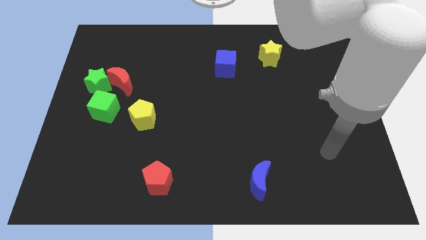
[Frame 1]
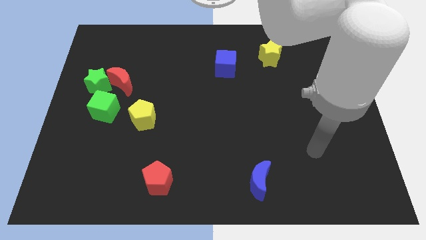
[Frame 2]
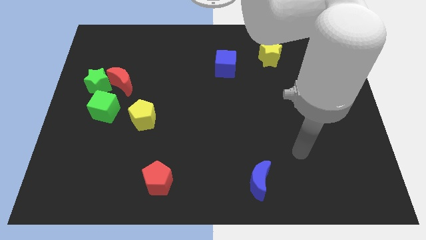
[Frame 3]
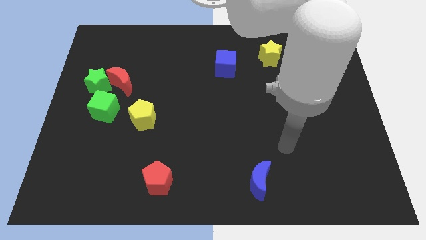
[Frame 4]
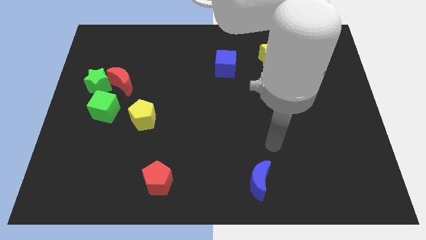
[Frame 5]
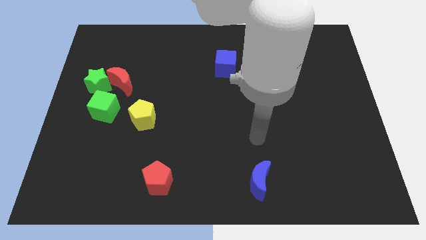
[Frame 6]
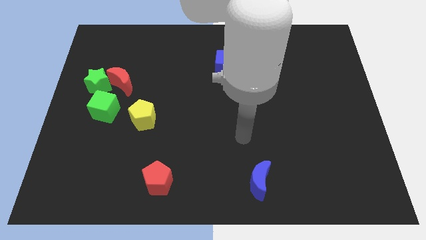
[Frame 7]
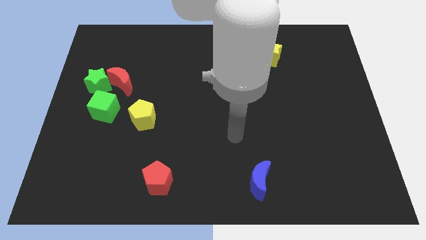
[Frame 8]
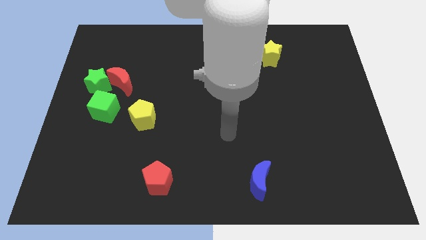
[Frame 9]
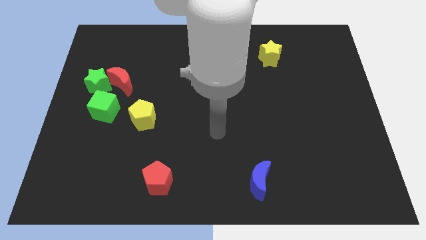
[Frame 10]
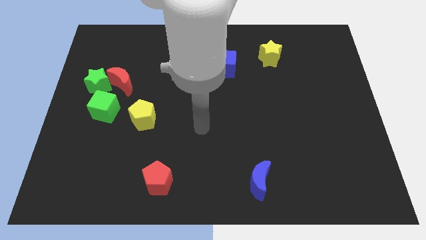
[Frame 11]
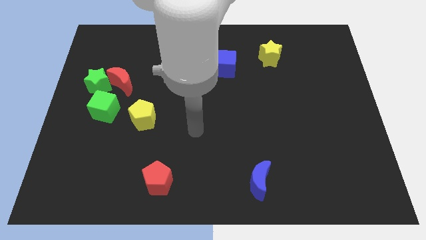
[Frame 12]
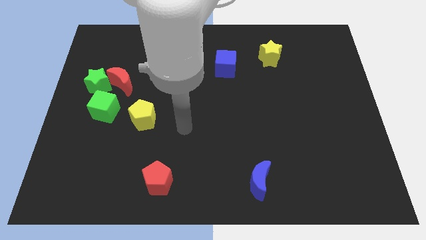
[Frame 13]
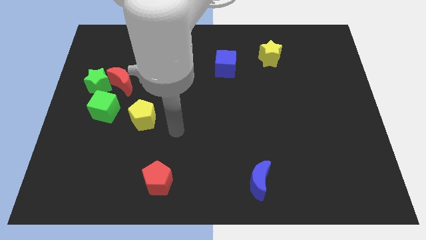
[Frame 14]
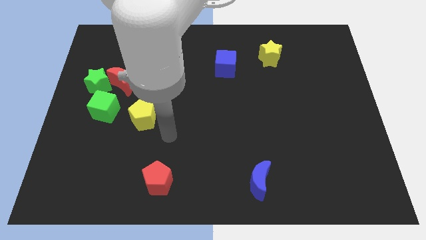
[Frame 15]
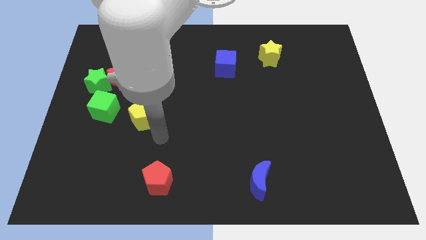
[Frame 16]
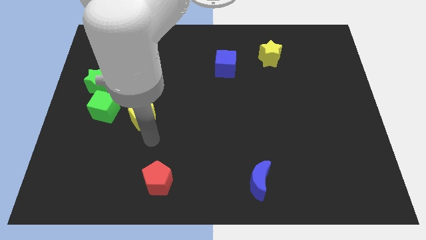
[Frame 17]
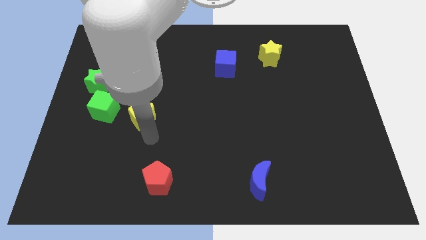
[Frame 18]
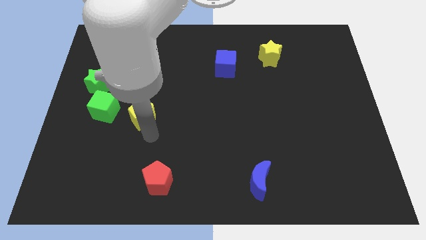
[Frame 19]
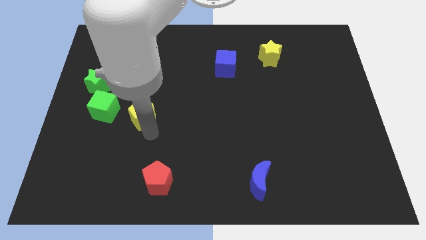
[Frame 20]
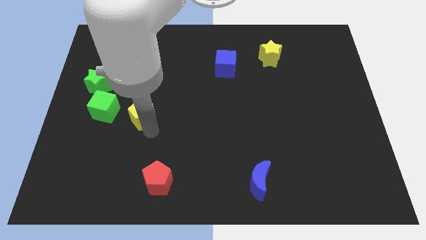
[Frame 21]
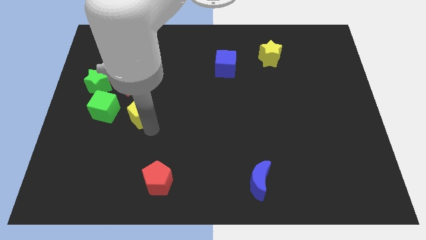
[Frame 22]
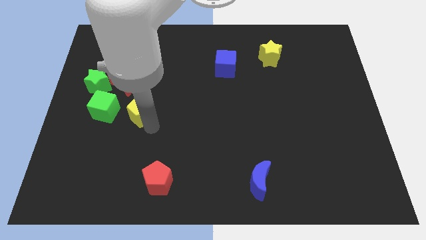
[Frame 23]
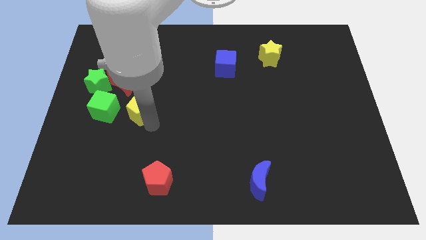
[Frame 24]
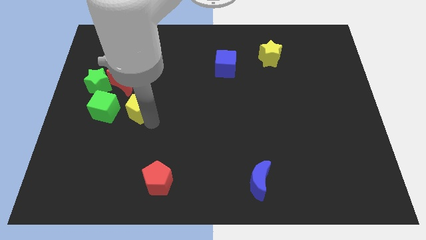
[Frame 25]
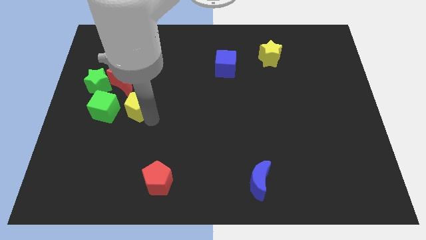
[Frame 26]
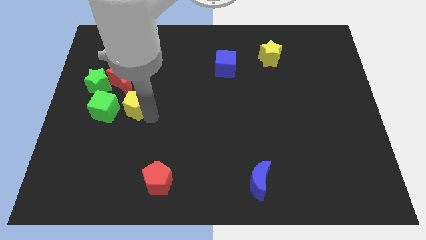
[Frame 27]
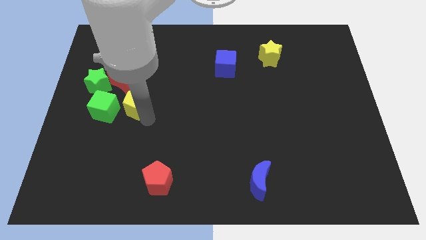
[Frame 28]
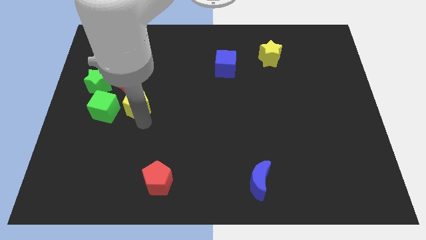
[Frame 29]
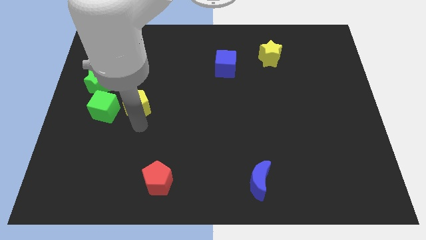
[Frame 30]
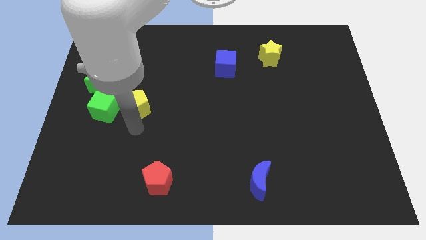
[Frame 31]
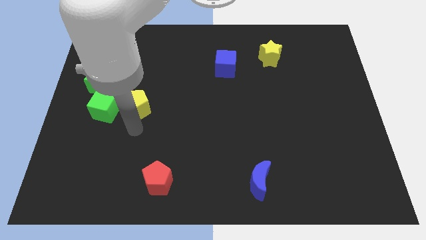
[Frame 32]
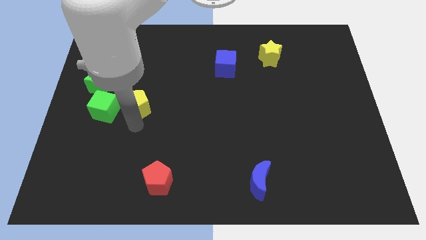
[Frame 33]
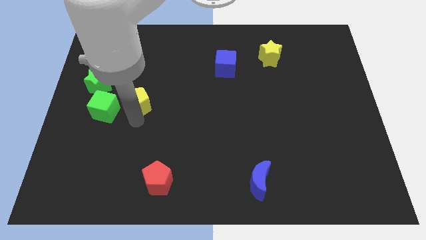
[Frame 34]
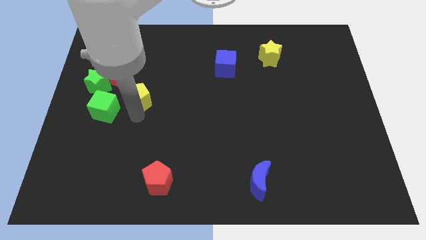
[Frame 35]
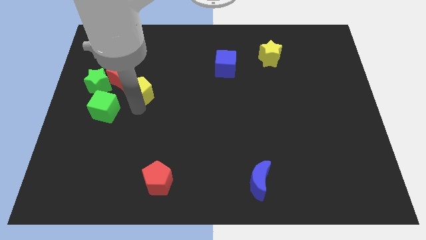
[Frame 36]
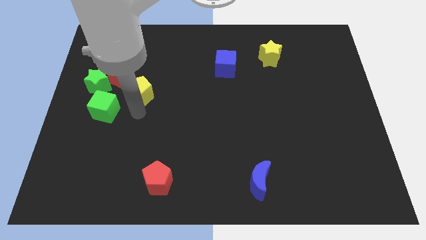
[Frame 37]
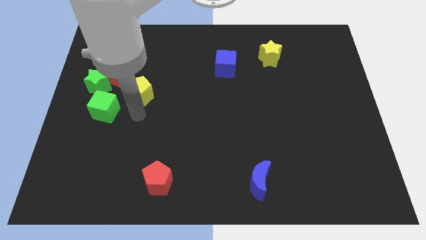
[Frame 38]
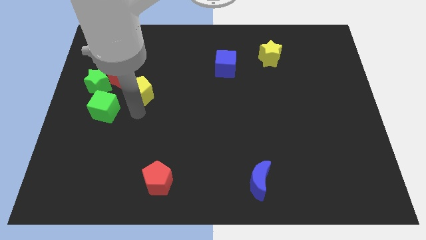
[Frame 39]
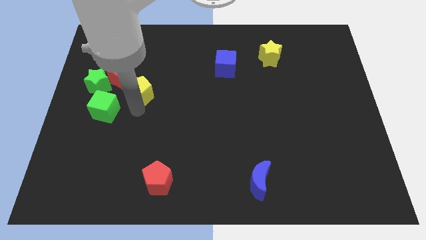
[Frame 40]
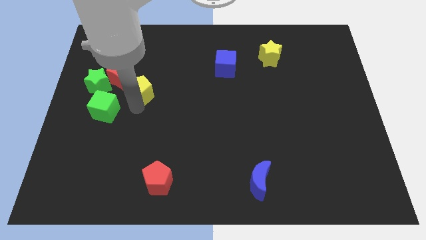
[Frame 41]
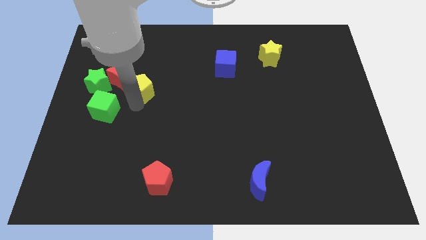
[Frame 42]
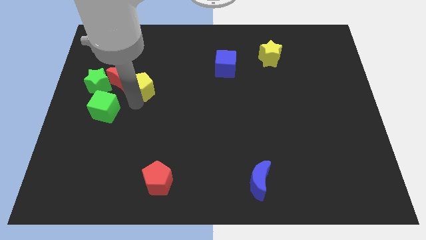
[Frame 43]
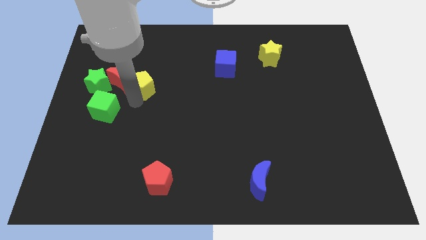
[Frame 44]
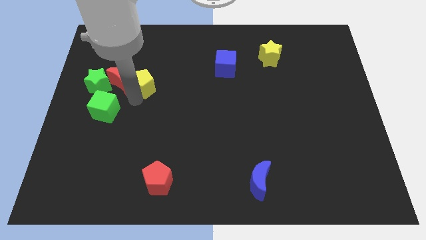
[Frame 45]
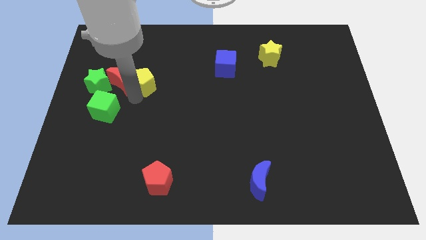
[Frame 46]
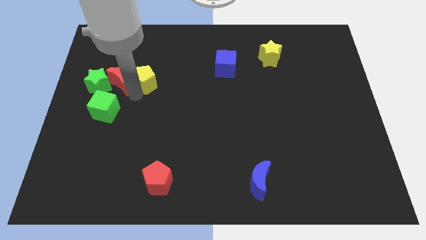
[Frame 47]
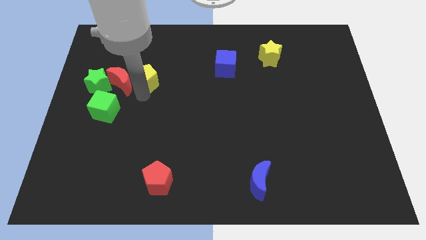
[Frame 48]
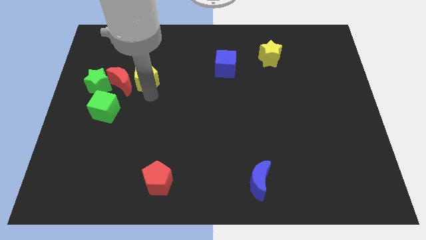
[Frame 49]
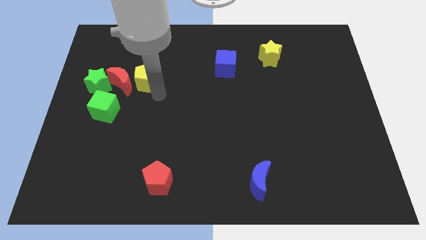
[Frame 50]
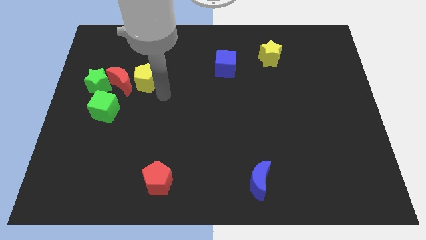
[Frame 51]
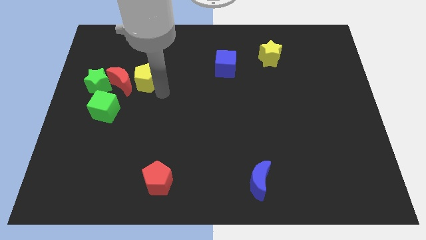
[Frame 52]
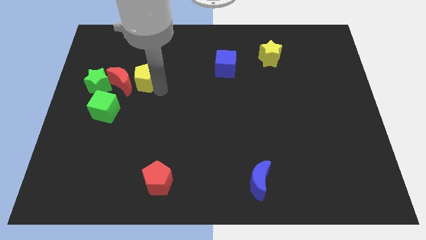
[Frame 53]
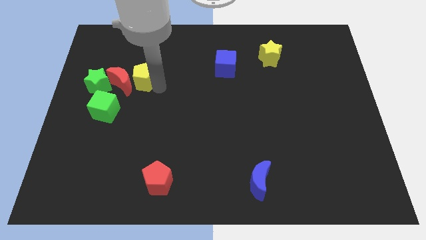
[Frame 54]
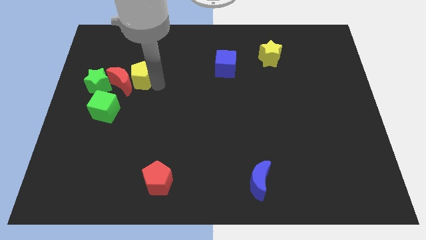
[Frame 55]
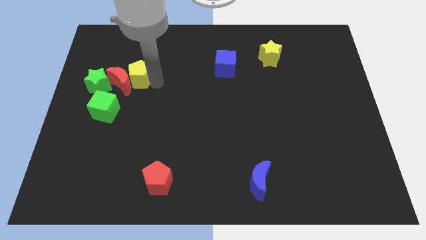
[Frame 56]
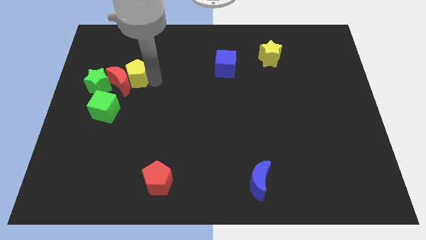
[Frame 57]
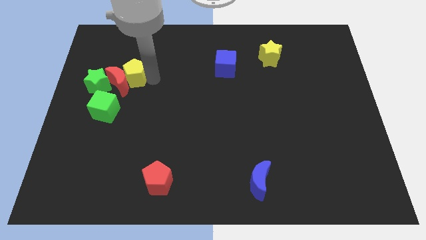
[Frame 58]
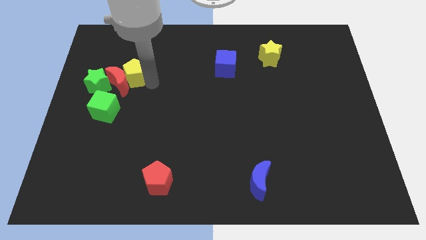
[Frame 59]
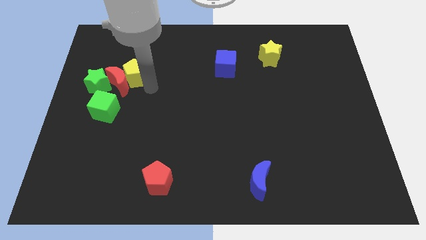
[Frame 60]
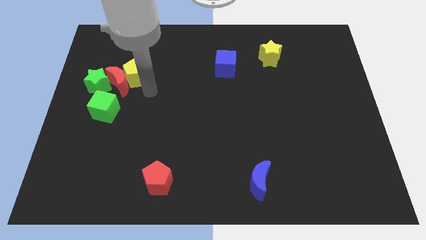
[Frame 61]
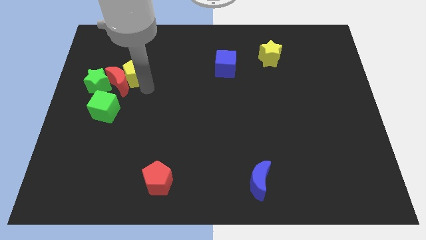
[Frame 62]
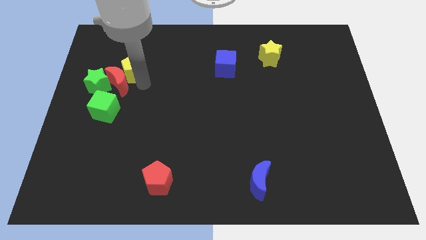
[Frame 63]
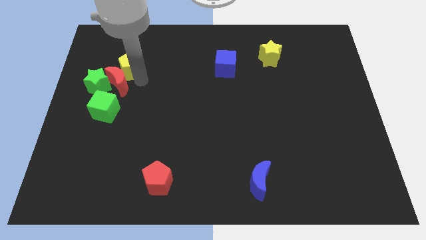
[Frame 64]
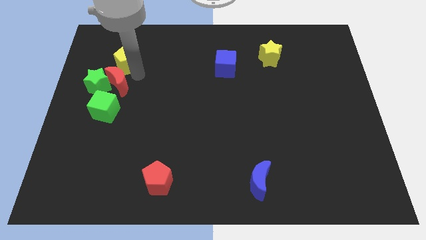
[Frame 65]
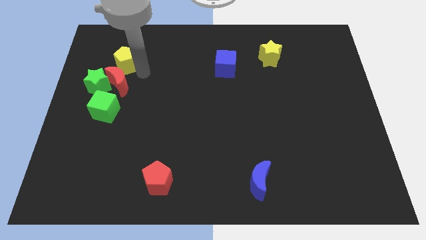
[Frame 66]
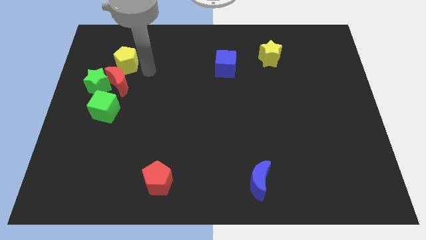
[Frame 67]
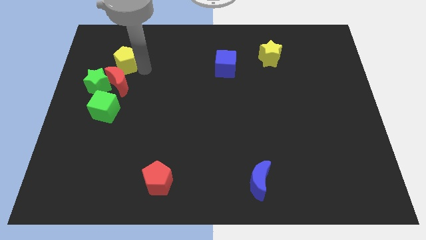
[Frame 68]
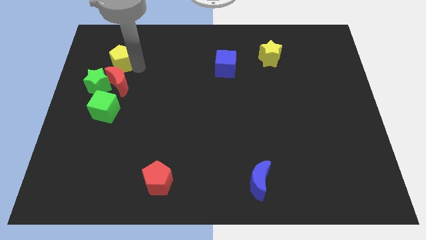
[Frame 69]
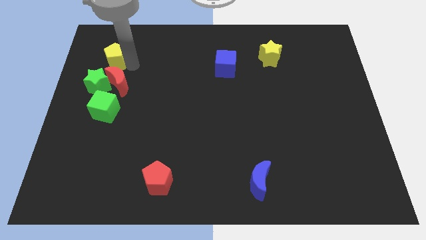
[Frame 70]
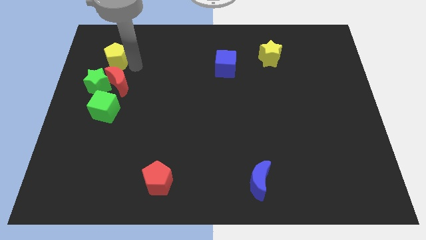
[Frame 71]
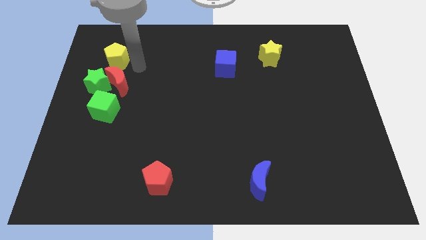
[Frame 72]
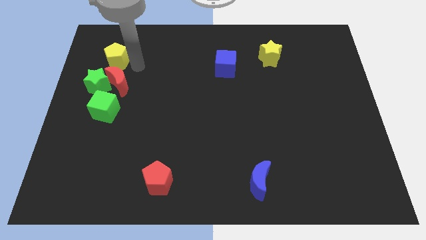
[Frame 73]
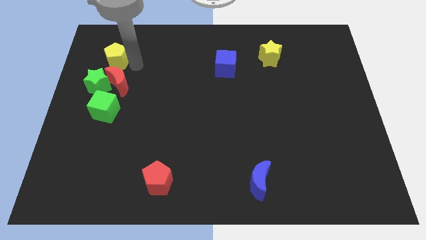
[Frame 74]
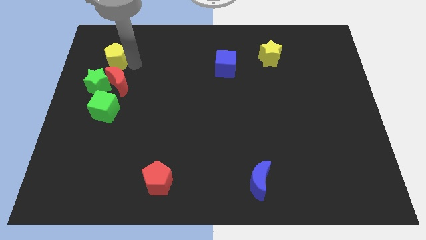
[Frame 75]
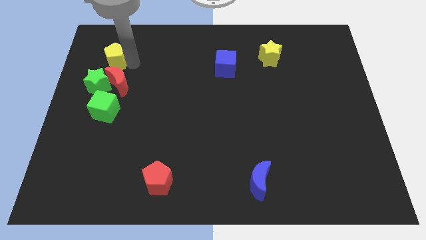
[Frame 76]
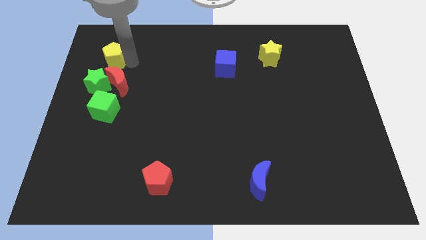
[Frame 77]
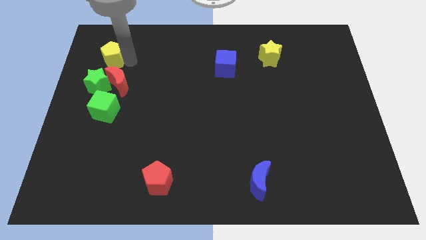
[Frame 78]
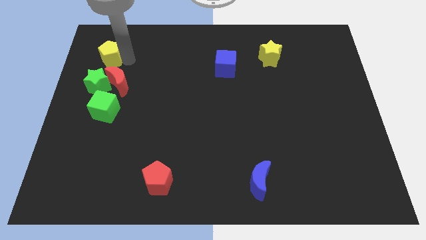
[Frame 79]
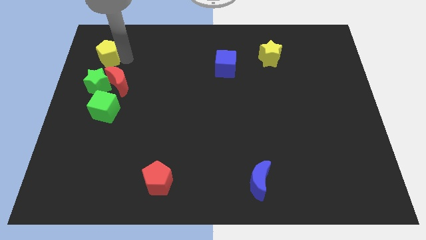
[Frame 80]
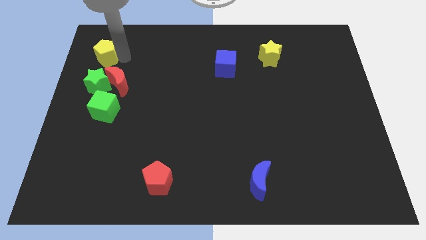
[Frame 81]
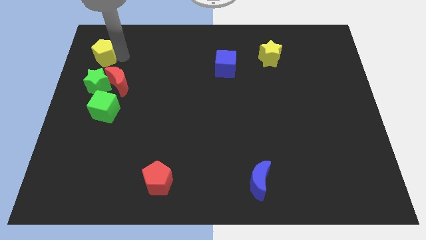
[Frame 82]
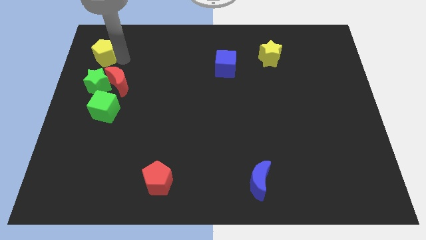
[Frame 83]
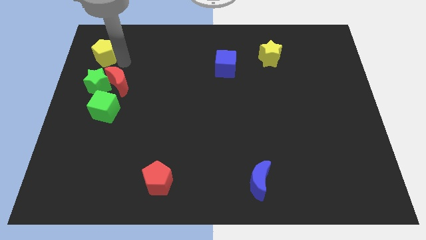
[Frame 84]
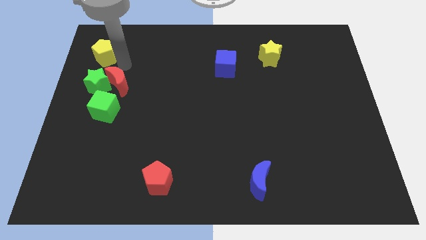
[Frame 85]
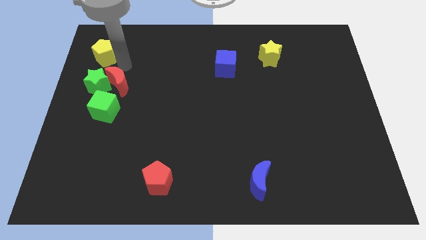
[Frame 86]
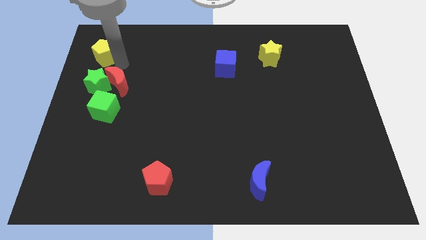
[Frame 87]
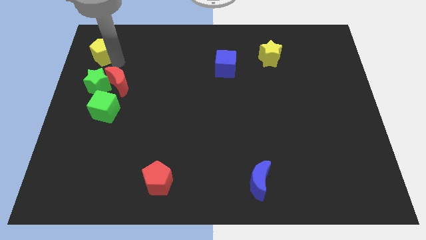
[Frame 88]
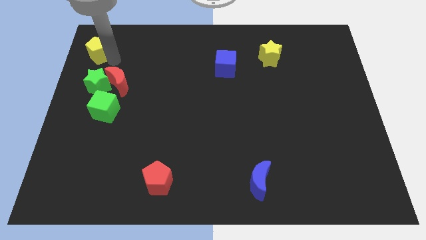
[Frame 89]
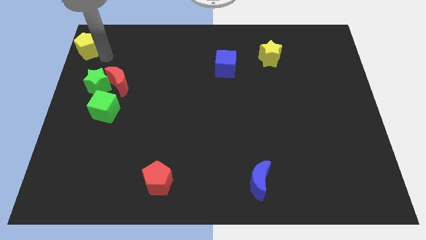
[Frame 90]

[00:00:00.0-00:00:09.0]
put the yellow pentagon to the top left corner
